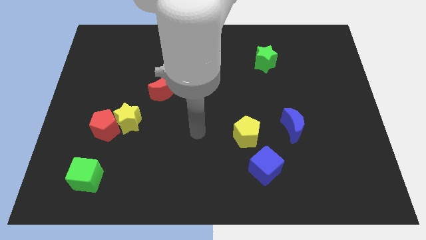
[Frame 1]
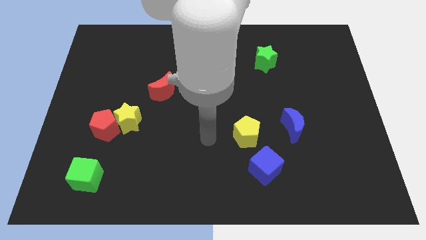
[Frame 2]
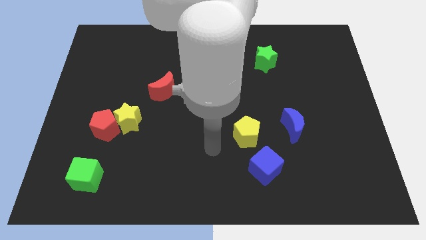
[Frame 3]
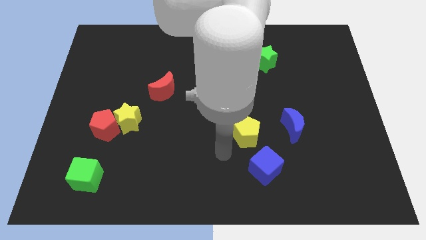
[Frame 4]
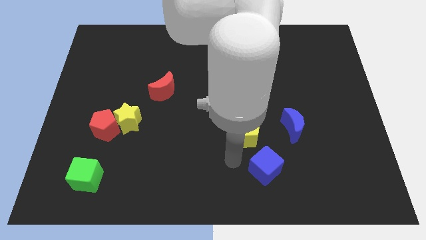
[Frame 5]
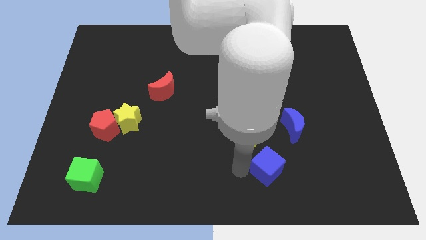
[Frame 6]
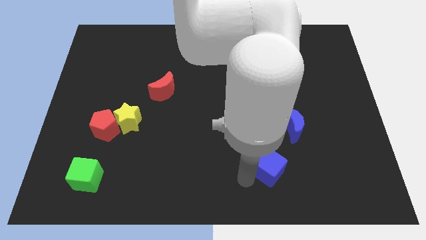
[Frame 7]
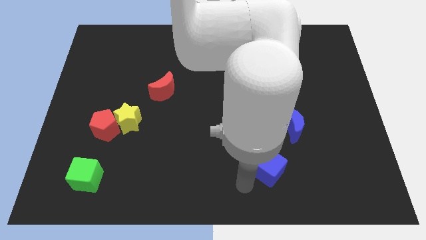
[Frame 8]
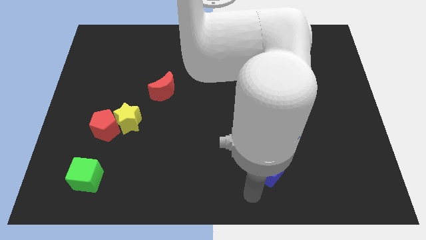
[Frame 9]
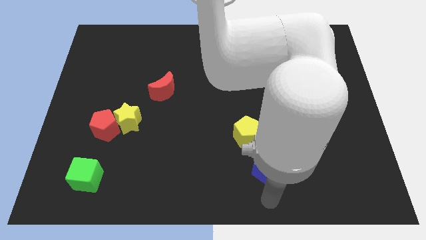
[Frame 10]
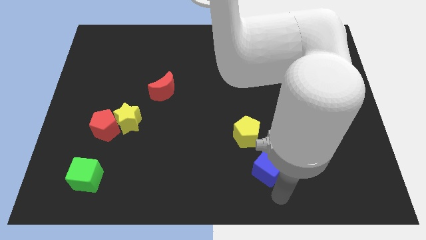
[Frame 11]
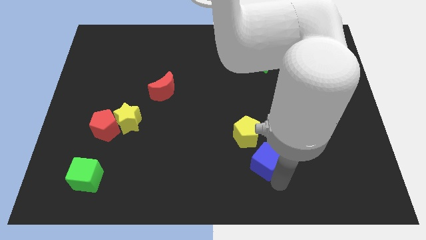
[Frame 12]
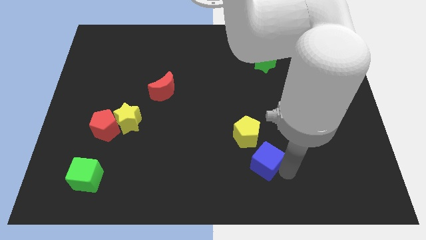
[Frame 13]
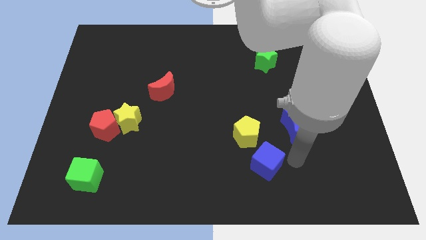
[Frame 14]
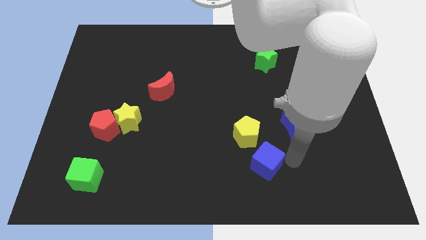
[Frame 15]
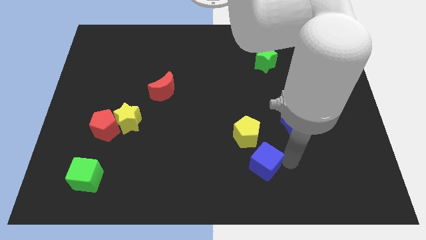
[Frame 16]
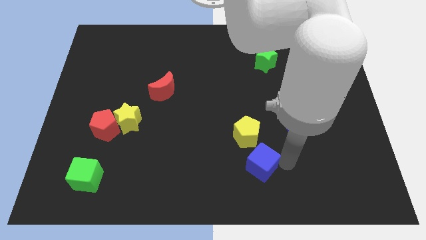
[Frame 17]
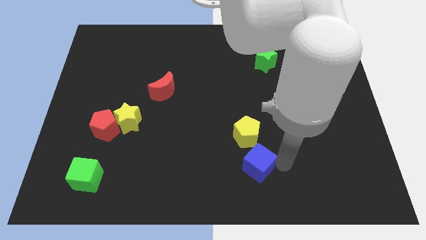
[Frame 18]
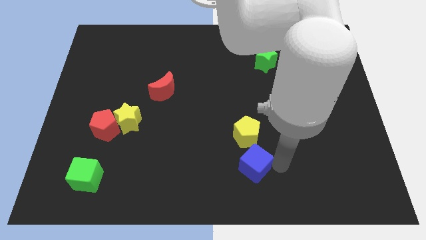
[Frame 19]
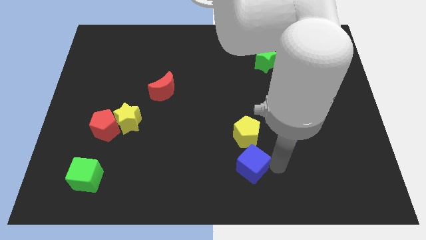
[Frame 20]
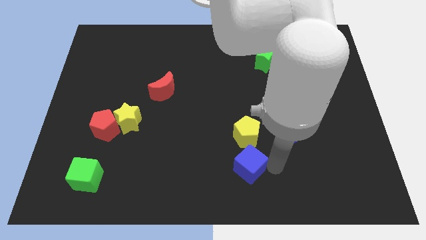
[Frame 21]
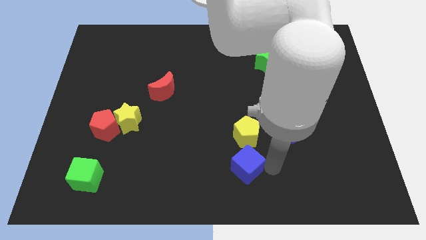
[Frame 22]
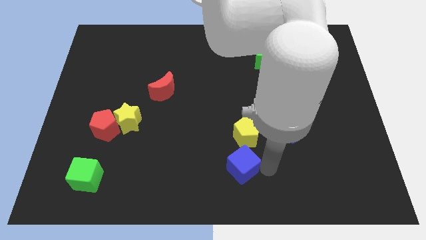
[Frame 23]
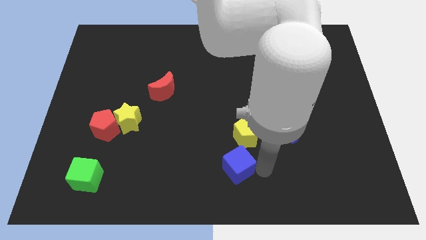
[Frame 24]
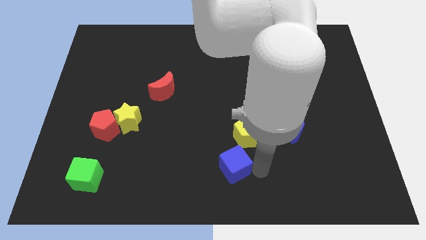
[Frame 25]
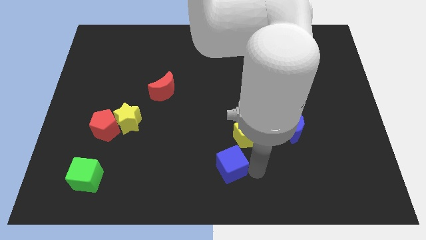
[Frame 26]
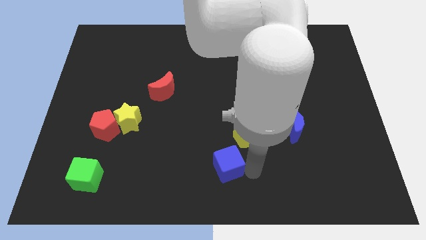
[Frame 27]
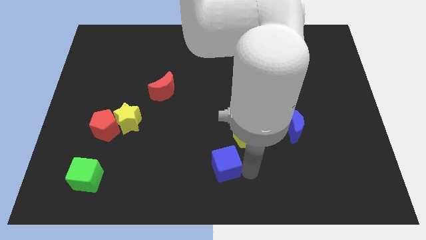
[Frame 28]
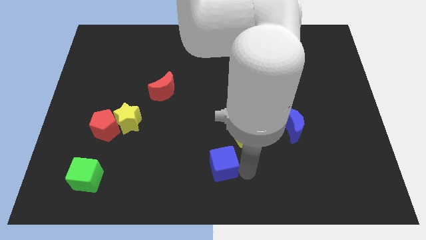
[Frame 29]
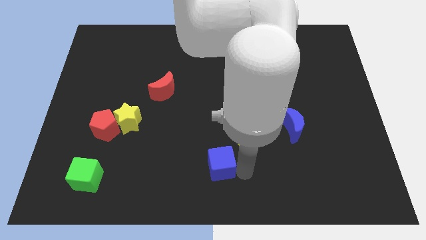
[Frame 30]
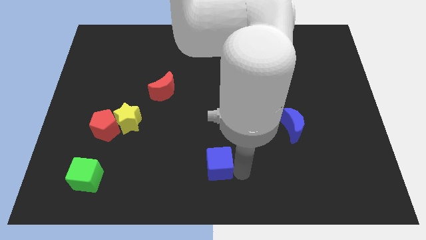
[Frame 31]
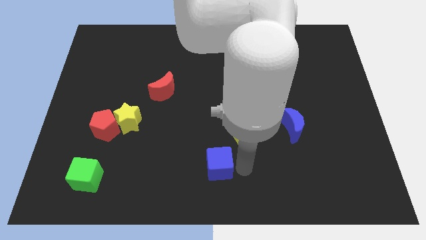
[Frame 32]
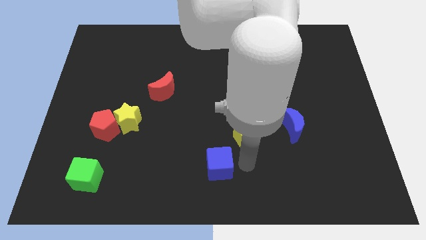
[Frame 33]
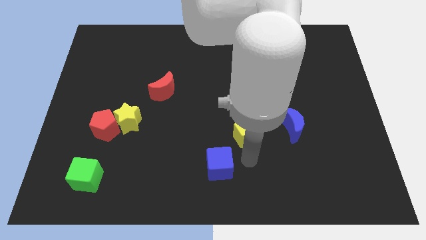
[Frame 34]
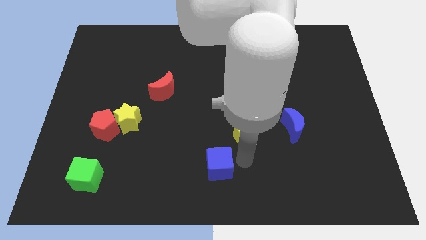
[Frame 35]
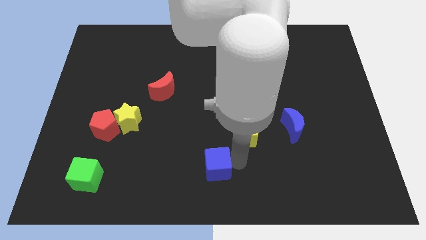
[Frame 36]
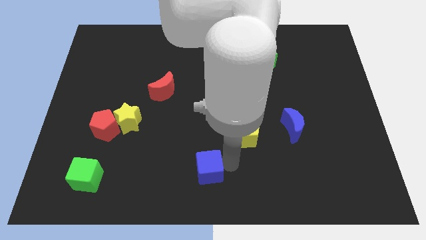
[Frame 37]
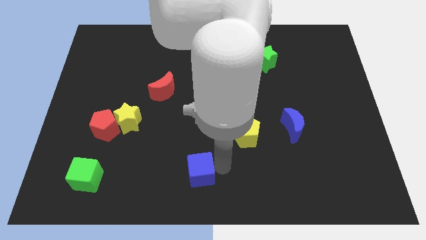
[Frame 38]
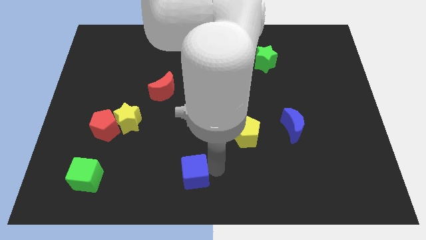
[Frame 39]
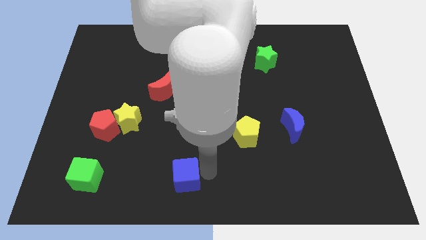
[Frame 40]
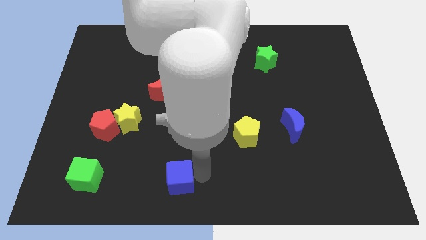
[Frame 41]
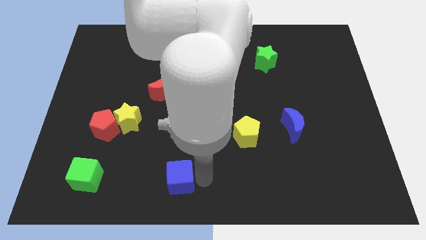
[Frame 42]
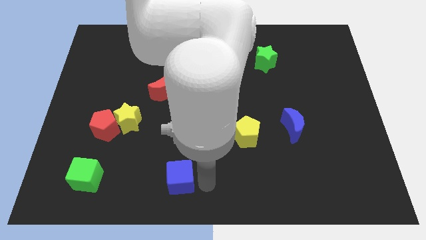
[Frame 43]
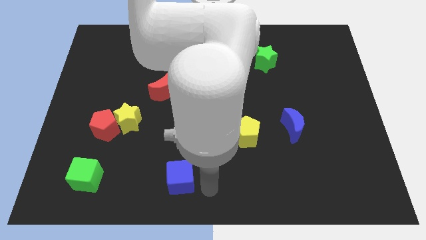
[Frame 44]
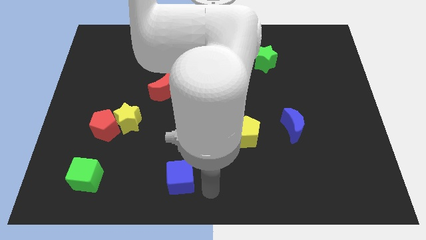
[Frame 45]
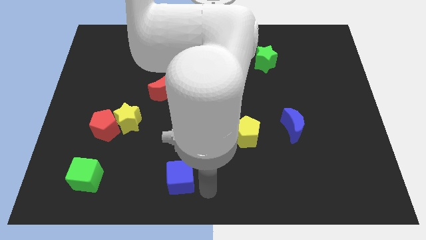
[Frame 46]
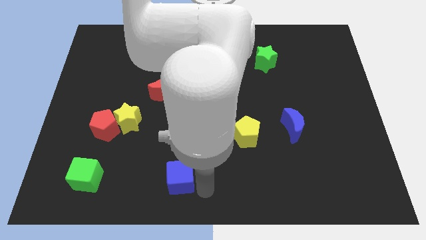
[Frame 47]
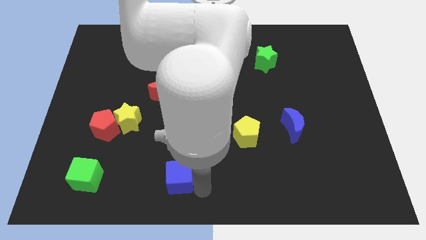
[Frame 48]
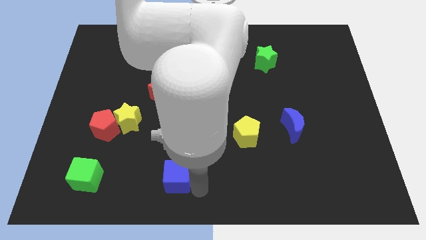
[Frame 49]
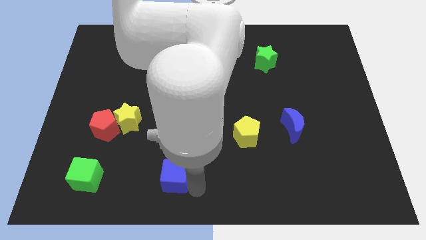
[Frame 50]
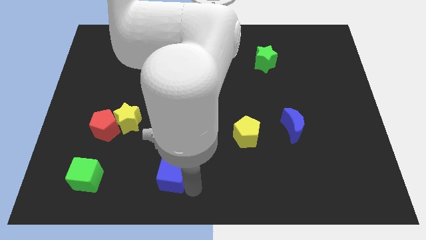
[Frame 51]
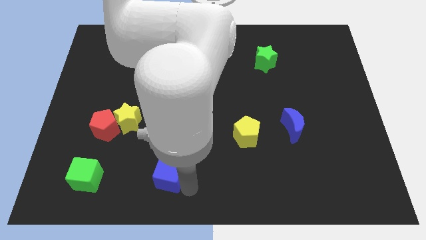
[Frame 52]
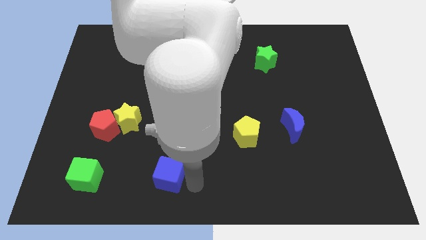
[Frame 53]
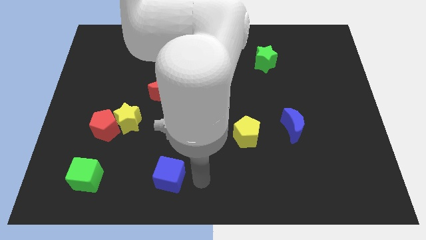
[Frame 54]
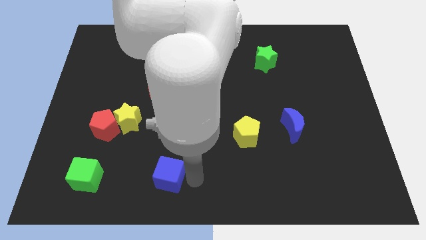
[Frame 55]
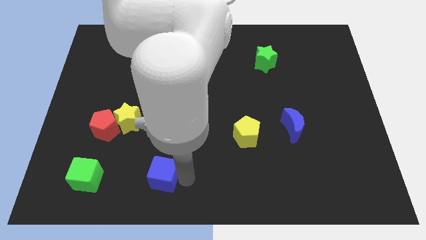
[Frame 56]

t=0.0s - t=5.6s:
move the blue cube to the left

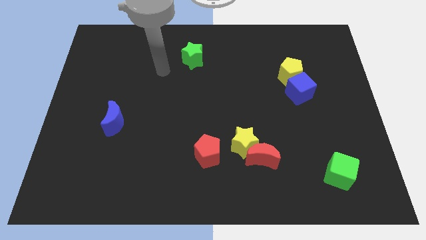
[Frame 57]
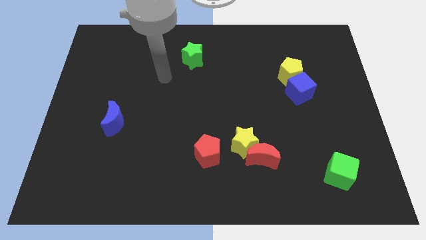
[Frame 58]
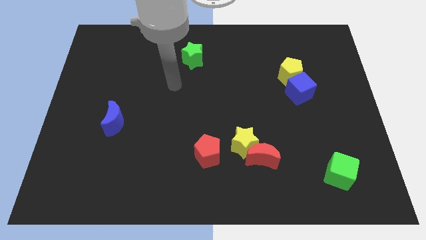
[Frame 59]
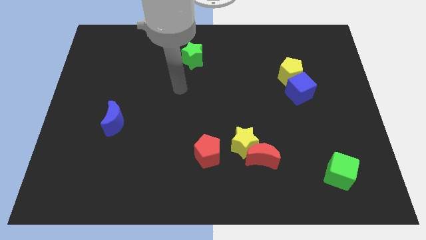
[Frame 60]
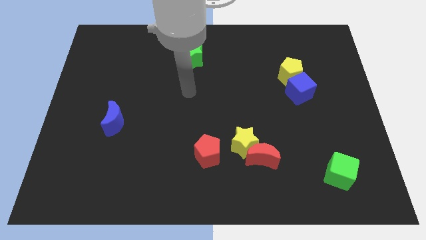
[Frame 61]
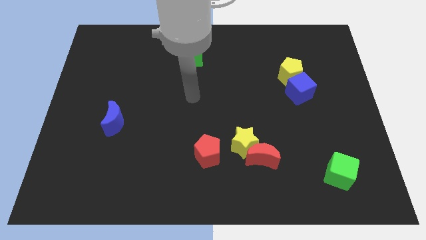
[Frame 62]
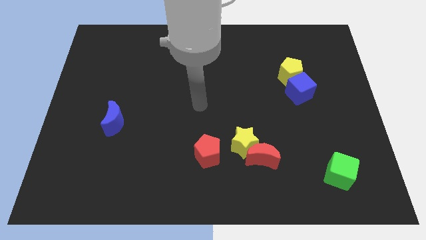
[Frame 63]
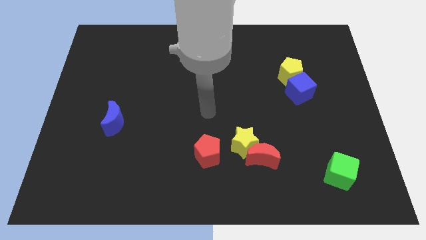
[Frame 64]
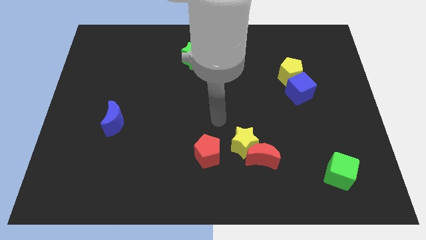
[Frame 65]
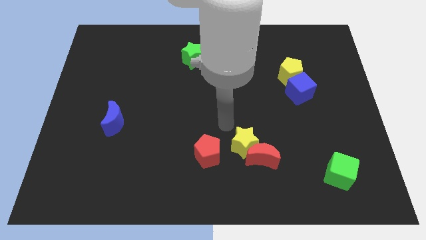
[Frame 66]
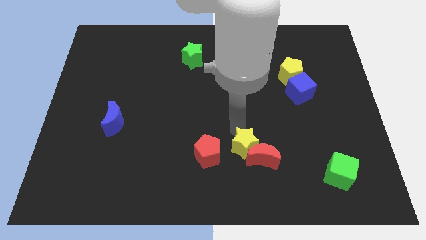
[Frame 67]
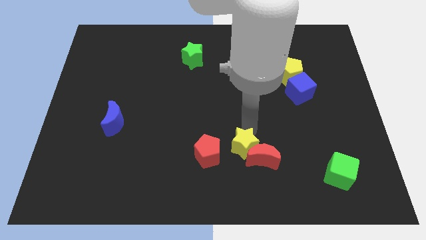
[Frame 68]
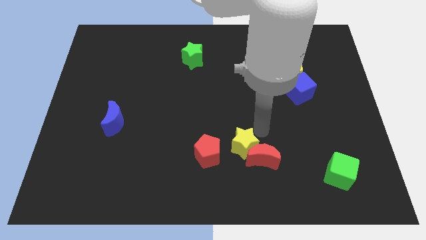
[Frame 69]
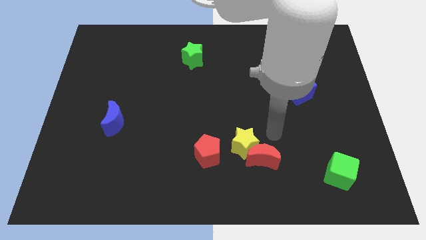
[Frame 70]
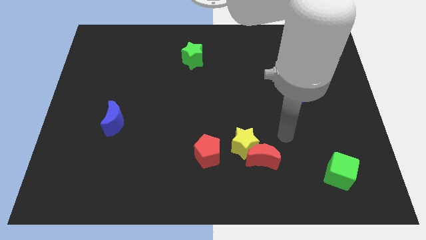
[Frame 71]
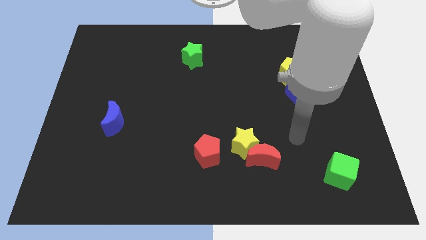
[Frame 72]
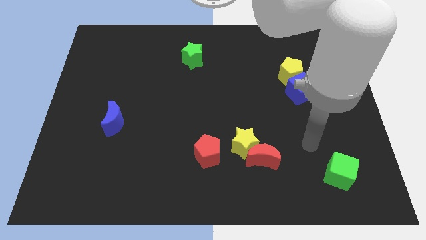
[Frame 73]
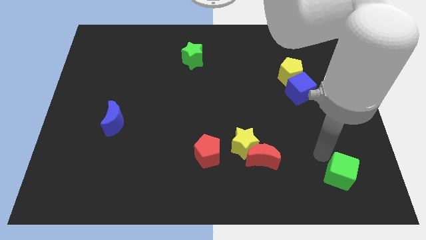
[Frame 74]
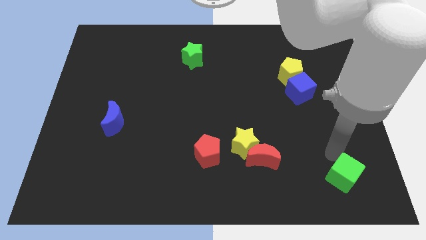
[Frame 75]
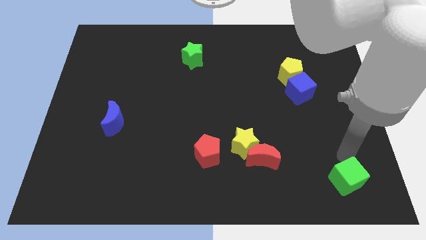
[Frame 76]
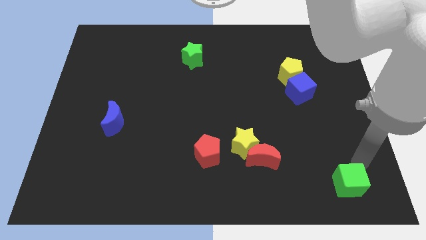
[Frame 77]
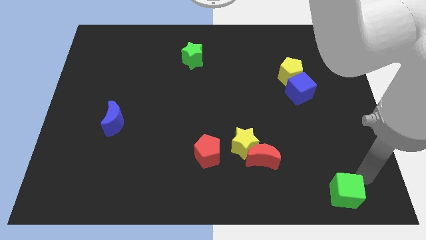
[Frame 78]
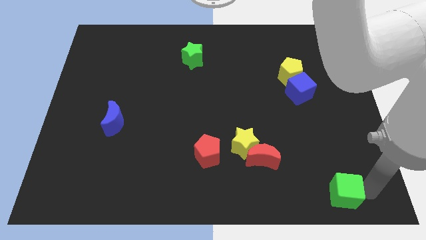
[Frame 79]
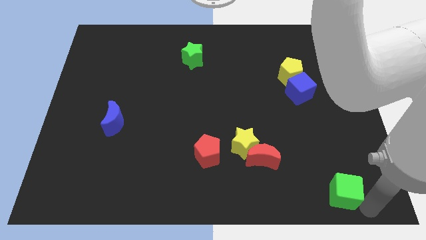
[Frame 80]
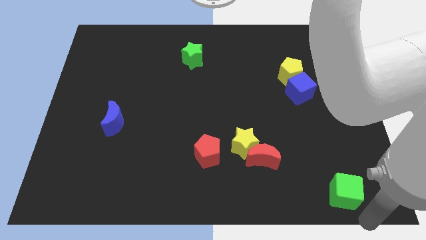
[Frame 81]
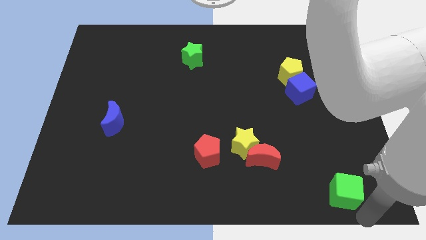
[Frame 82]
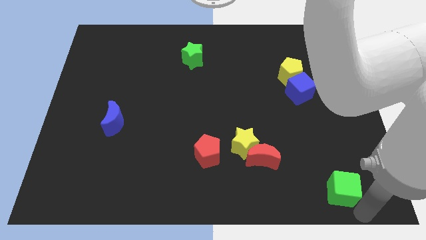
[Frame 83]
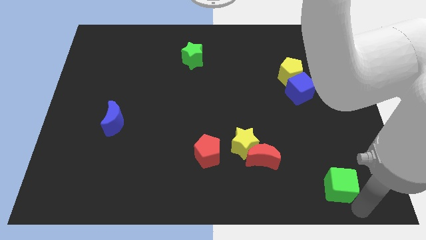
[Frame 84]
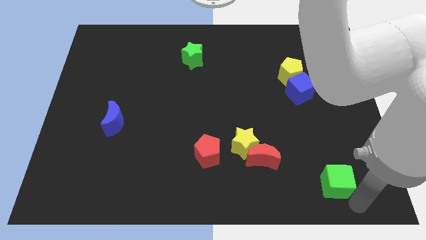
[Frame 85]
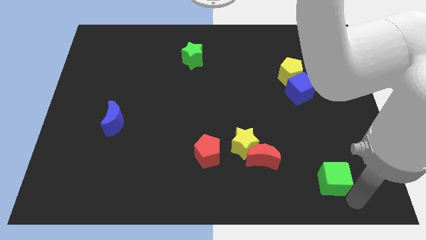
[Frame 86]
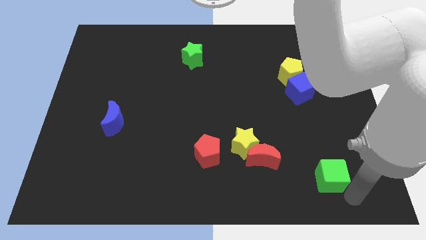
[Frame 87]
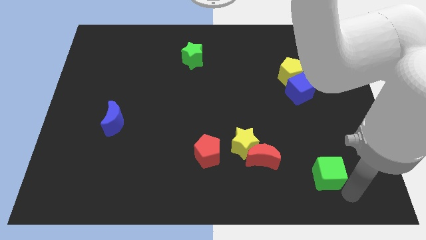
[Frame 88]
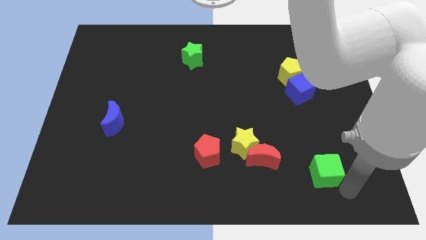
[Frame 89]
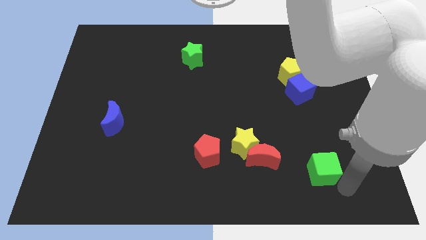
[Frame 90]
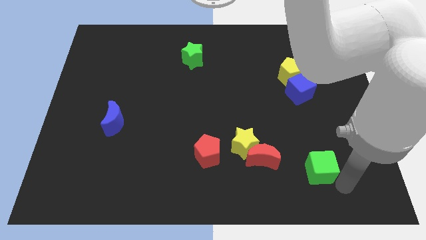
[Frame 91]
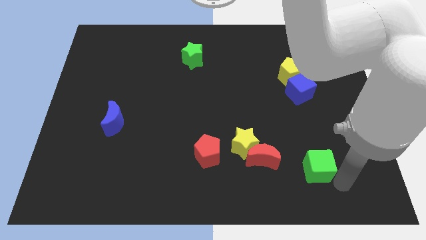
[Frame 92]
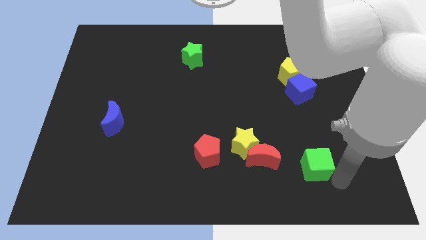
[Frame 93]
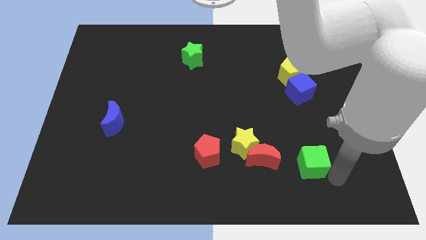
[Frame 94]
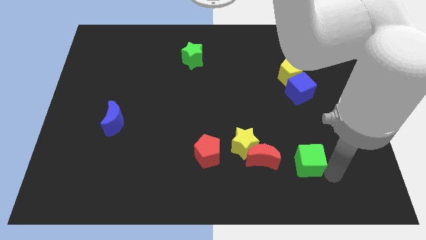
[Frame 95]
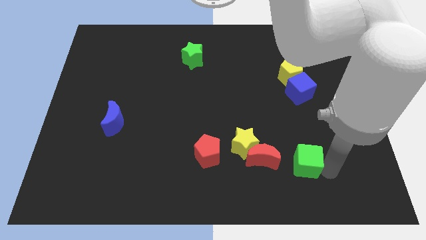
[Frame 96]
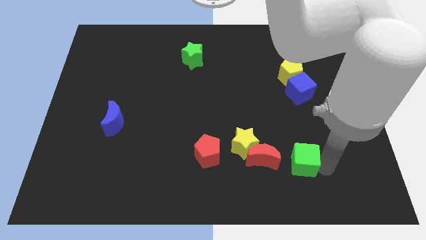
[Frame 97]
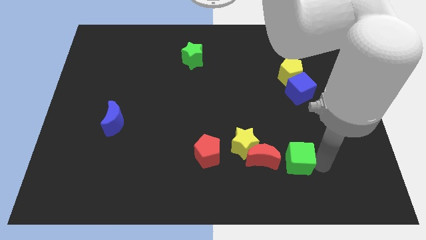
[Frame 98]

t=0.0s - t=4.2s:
move the green cube upwards and left diagonally a little bit
